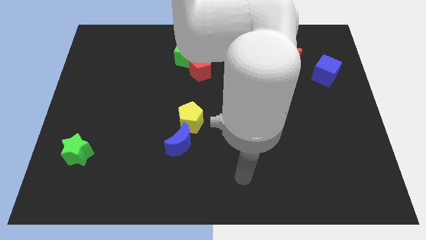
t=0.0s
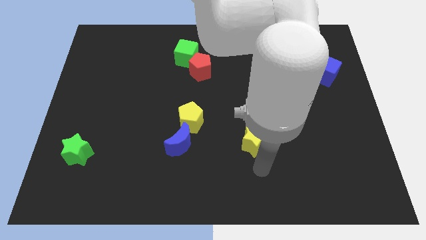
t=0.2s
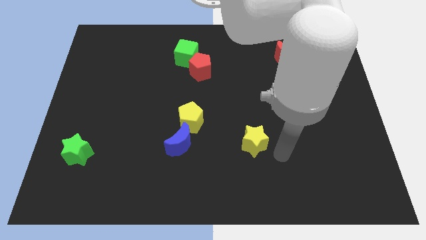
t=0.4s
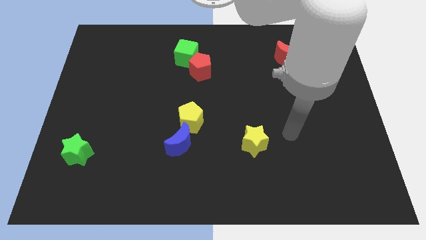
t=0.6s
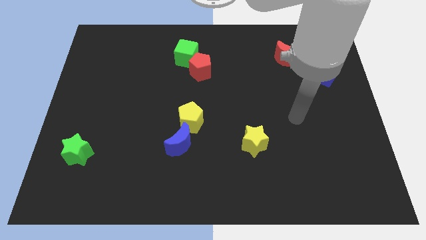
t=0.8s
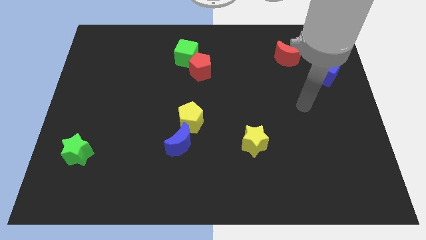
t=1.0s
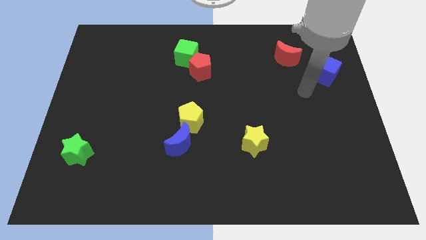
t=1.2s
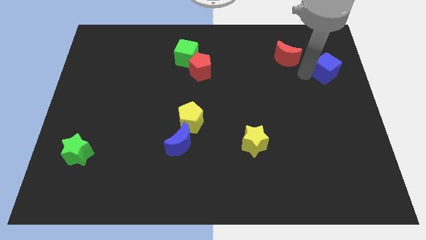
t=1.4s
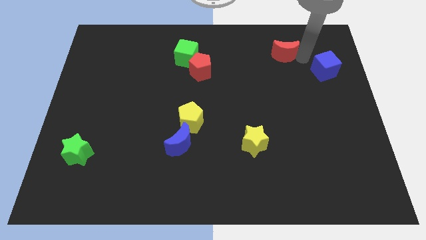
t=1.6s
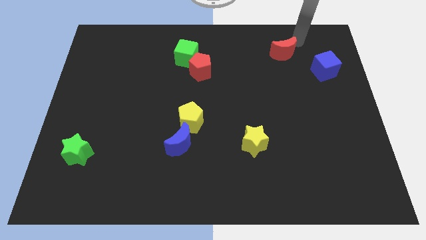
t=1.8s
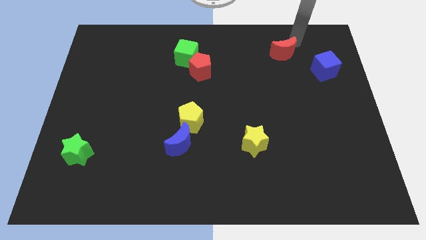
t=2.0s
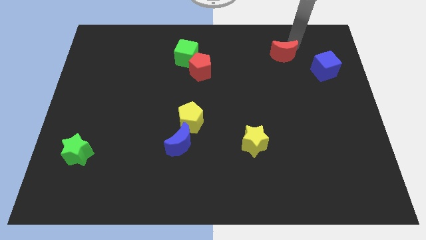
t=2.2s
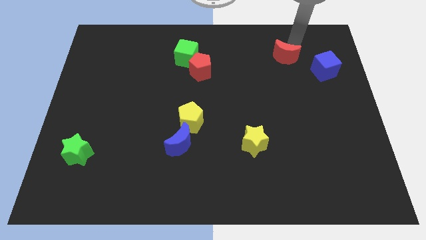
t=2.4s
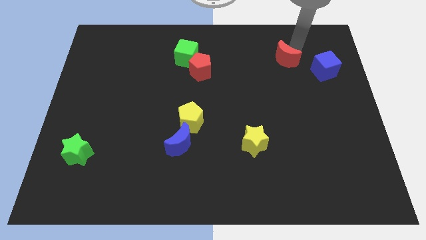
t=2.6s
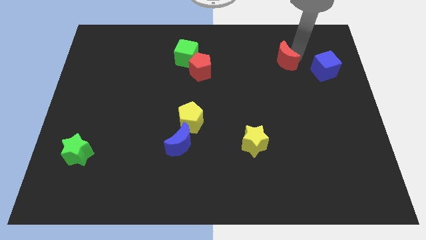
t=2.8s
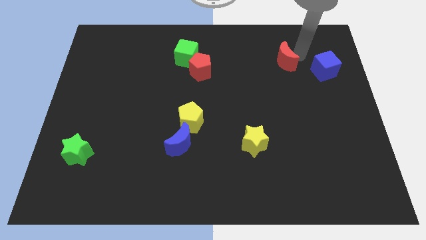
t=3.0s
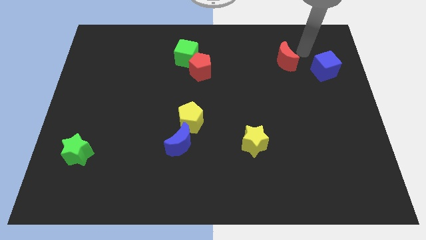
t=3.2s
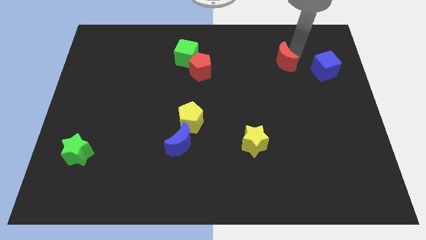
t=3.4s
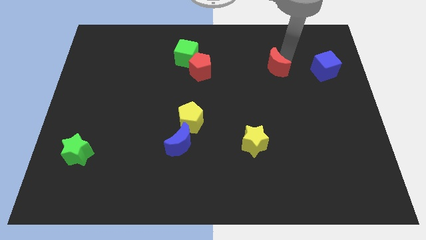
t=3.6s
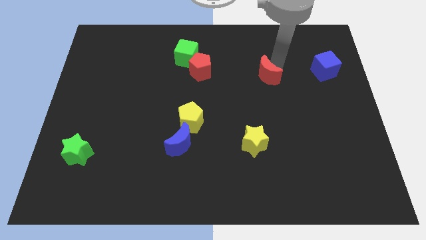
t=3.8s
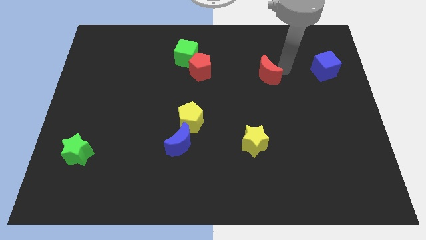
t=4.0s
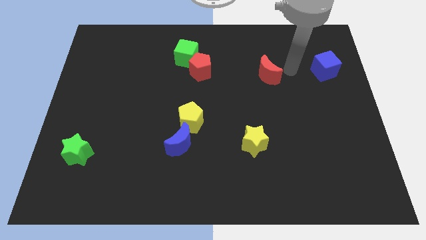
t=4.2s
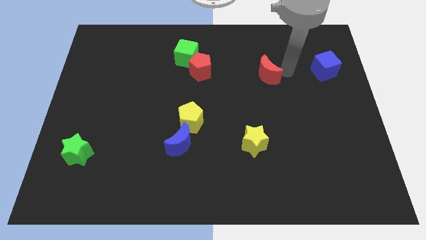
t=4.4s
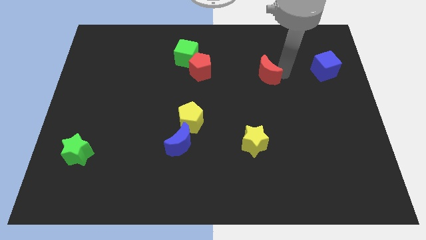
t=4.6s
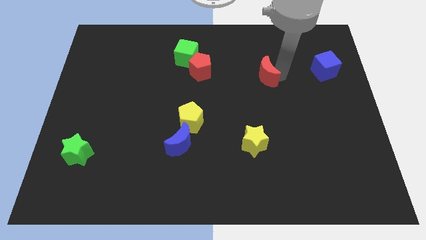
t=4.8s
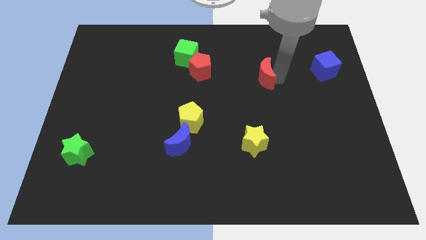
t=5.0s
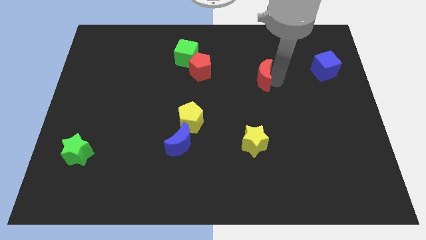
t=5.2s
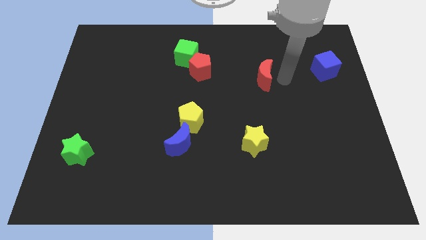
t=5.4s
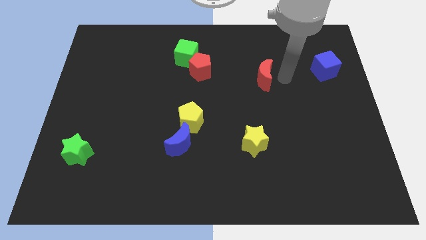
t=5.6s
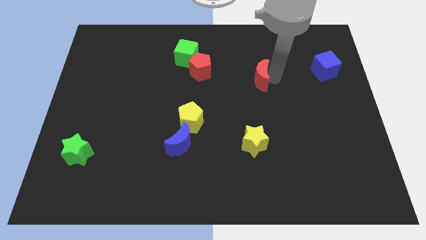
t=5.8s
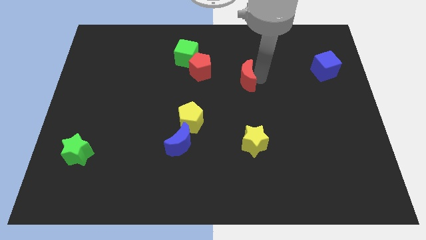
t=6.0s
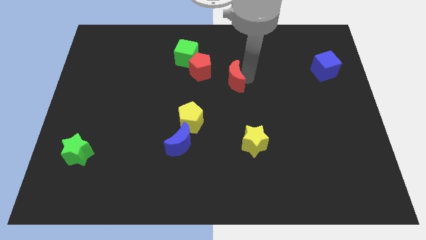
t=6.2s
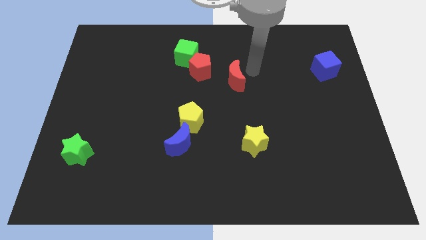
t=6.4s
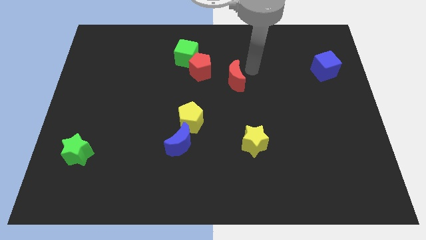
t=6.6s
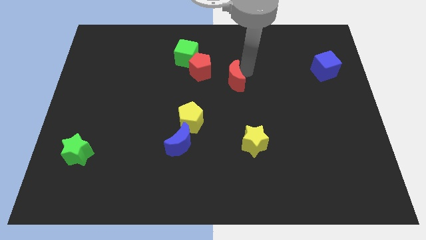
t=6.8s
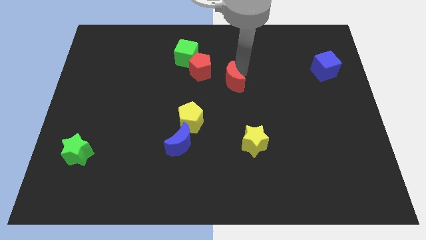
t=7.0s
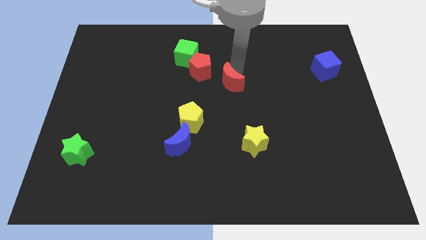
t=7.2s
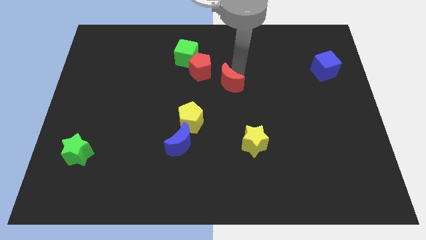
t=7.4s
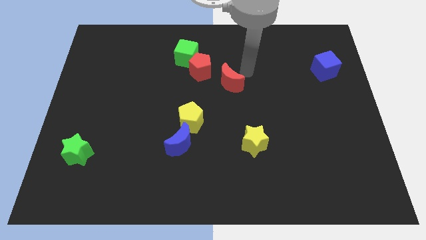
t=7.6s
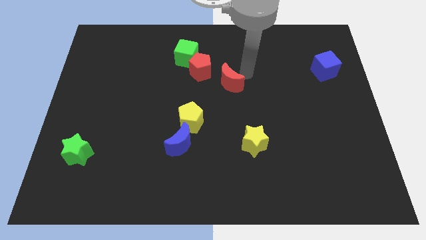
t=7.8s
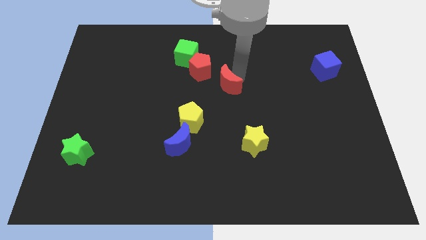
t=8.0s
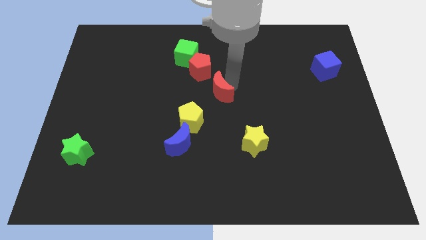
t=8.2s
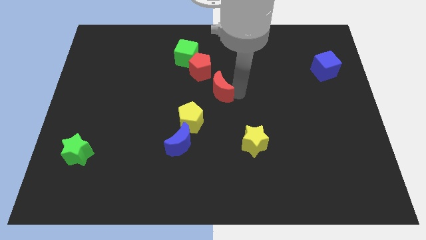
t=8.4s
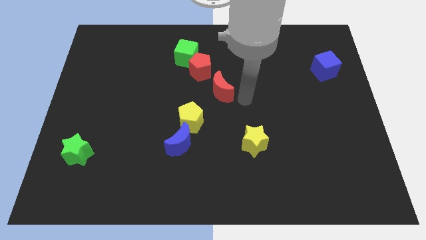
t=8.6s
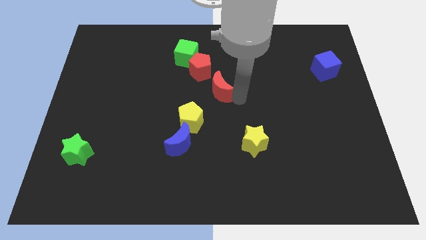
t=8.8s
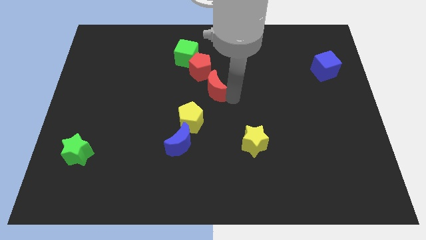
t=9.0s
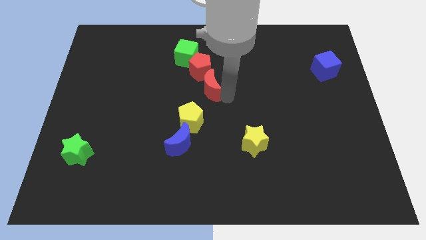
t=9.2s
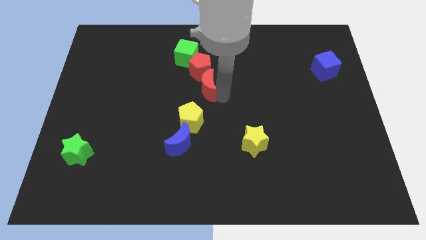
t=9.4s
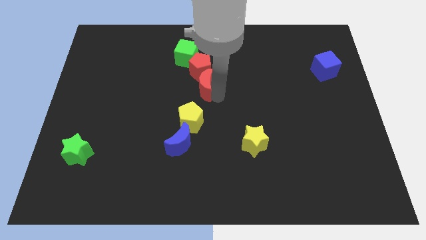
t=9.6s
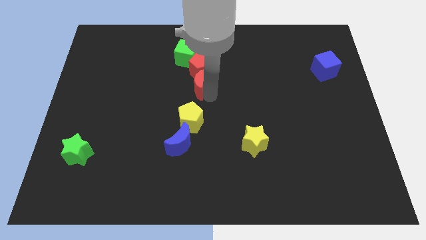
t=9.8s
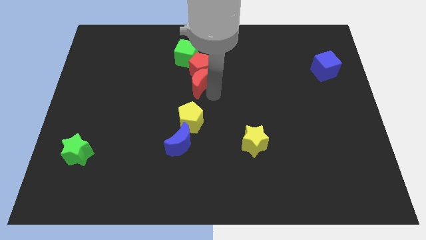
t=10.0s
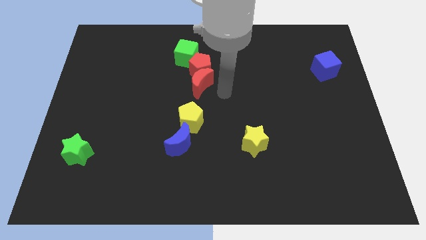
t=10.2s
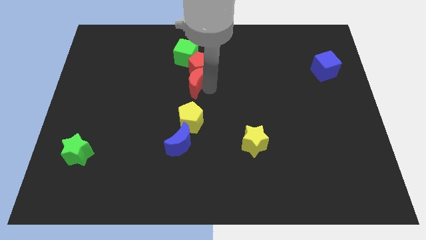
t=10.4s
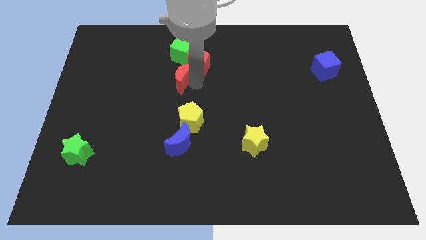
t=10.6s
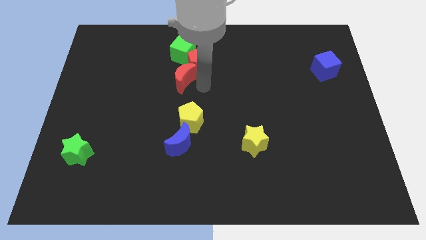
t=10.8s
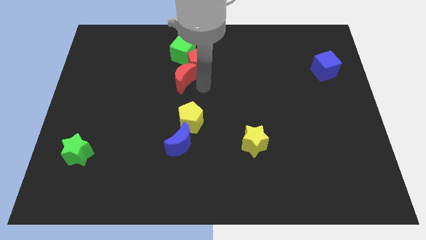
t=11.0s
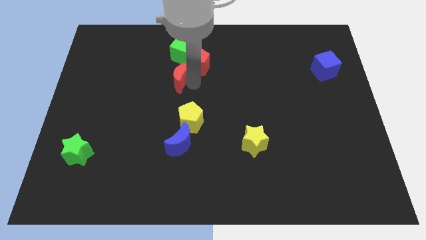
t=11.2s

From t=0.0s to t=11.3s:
push the red moon to the left side of the red pentagon

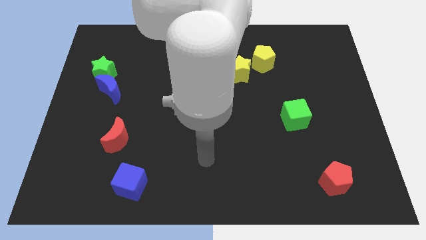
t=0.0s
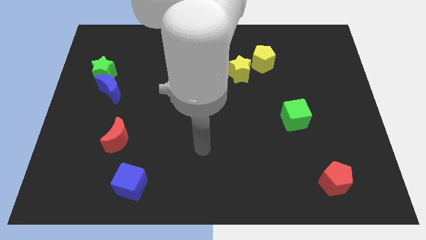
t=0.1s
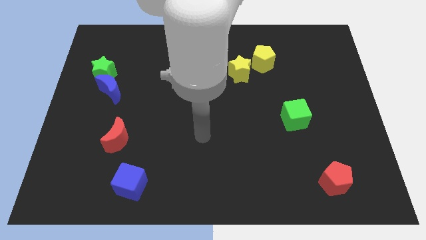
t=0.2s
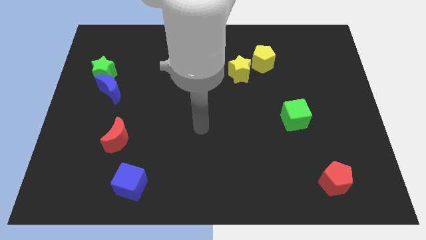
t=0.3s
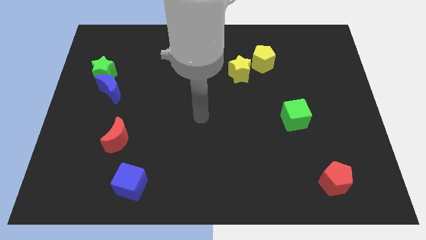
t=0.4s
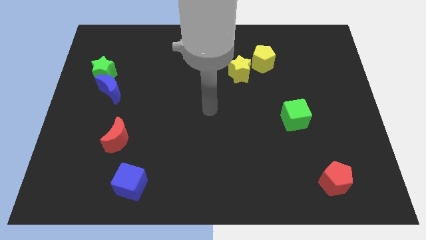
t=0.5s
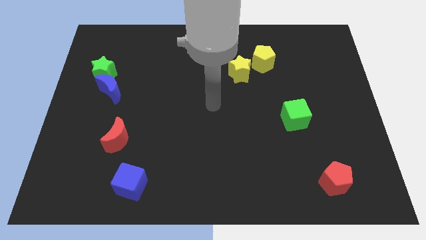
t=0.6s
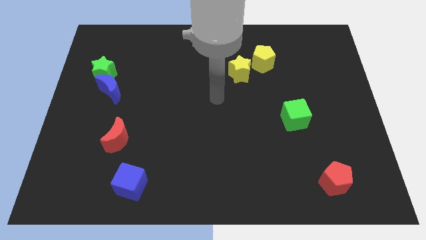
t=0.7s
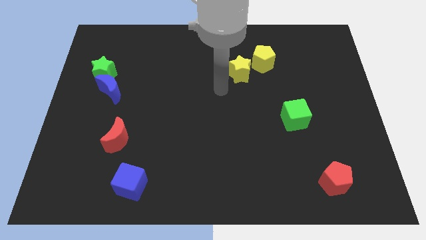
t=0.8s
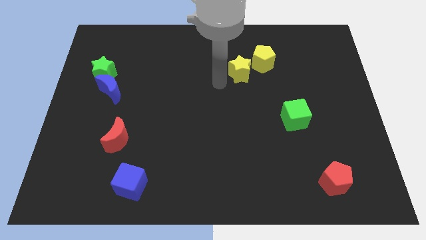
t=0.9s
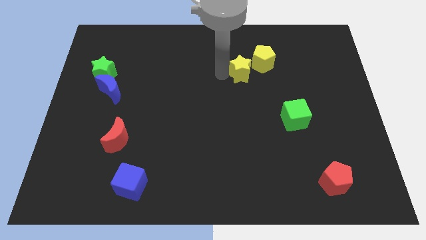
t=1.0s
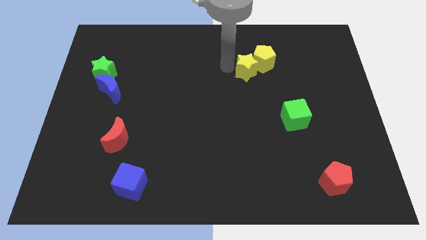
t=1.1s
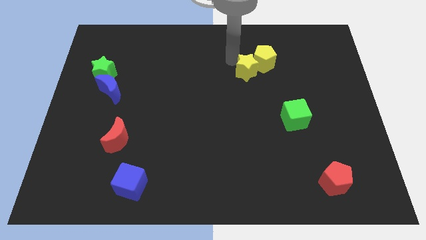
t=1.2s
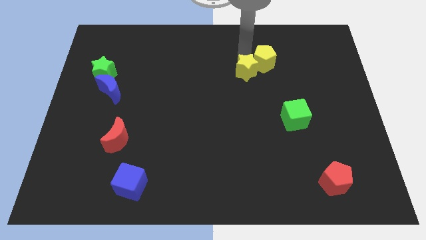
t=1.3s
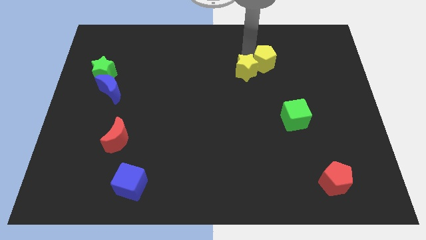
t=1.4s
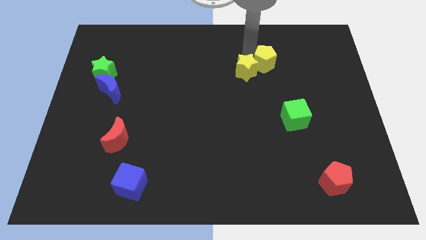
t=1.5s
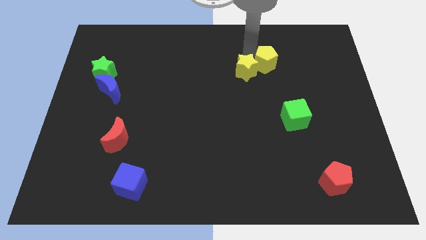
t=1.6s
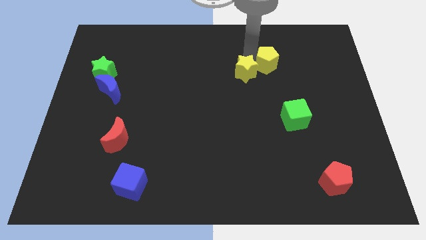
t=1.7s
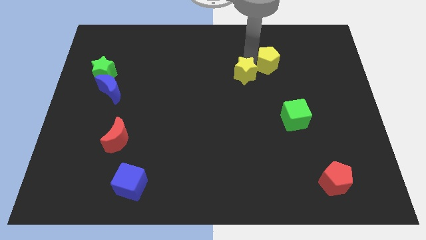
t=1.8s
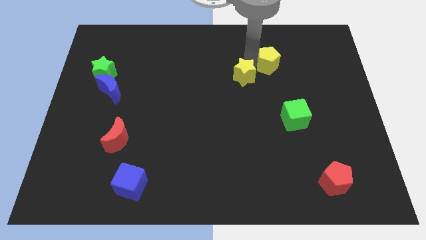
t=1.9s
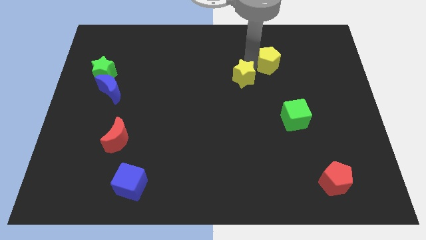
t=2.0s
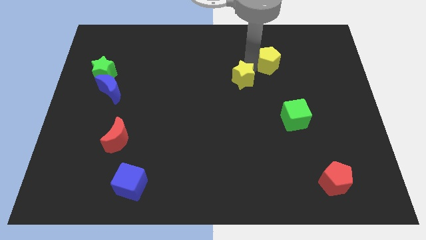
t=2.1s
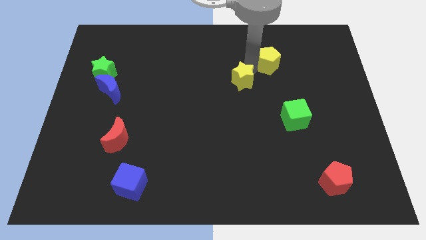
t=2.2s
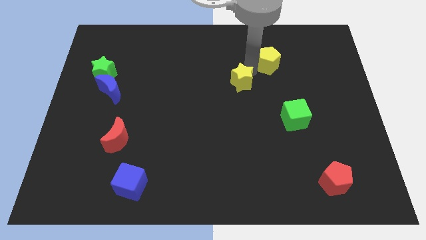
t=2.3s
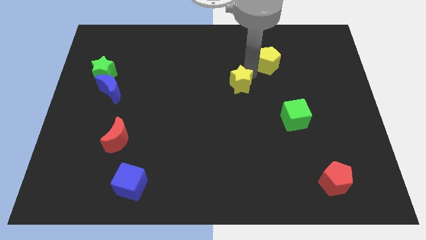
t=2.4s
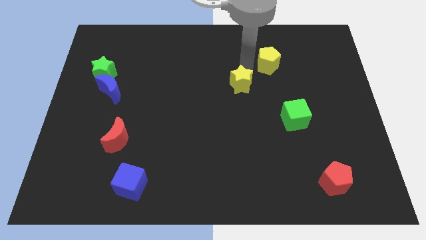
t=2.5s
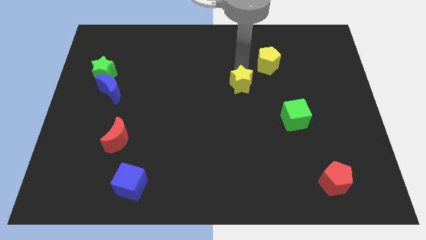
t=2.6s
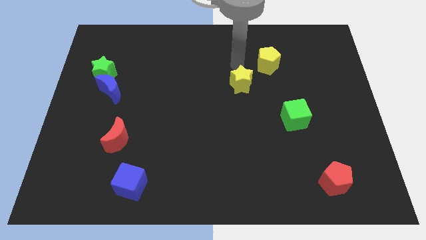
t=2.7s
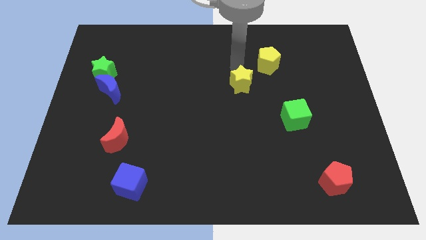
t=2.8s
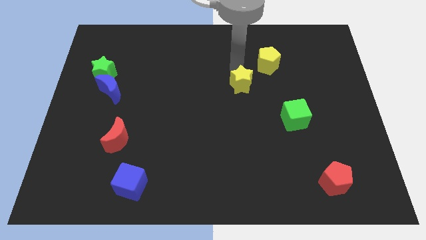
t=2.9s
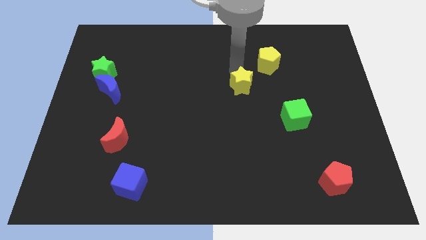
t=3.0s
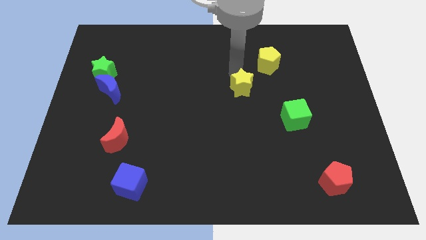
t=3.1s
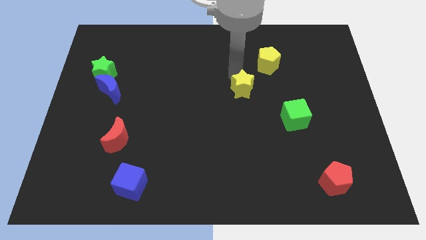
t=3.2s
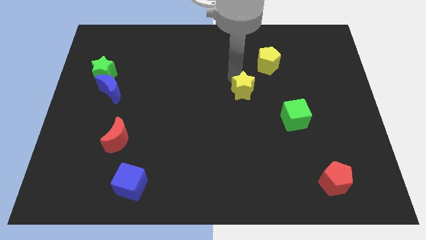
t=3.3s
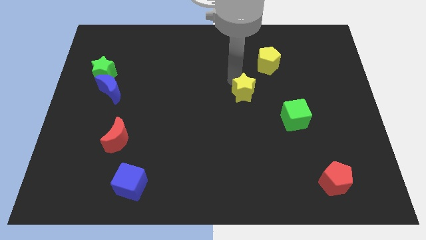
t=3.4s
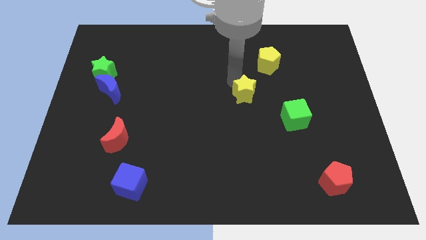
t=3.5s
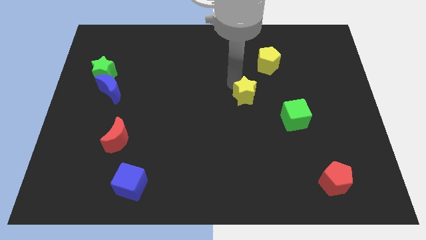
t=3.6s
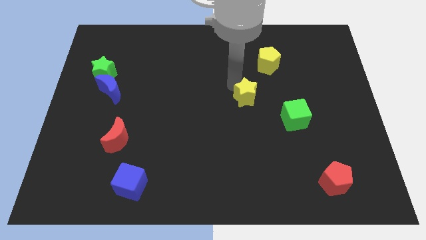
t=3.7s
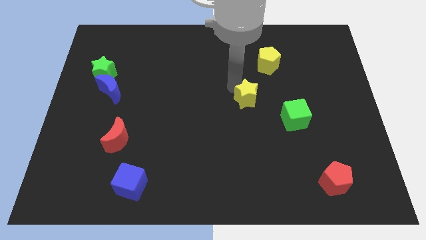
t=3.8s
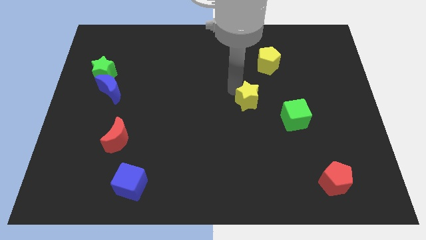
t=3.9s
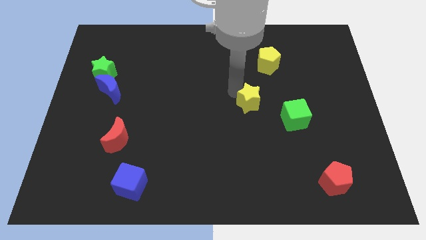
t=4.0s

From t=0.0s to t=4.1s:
put the yellow star to the left side of the green cube
